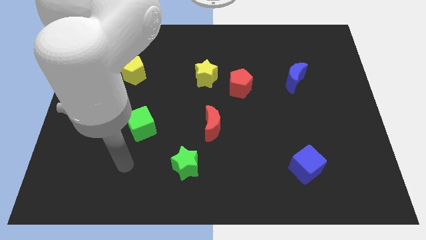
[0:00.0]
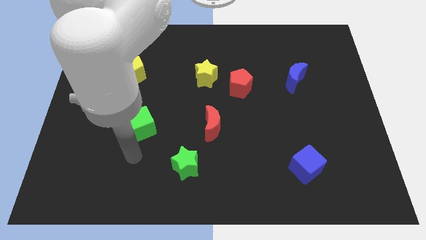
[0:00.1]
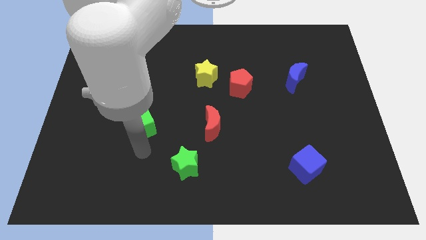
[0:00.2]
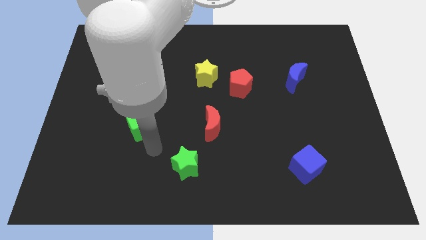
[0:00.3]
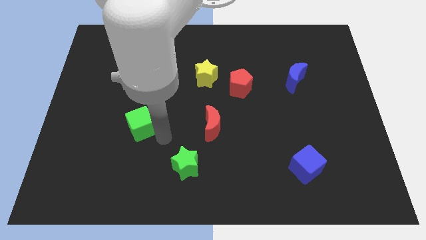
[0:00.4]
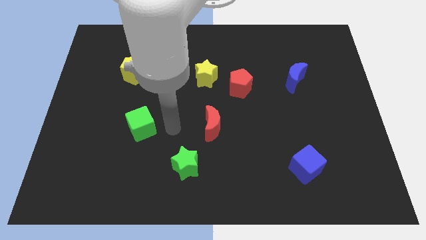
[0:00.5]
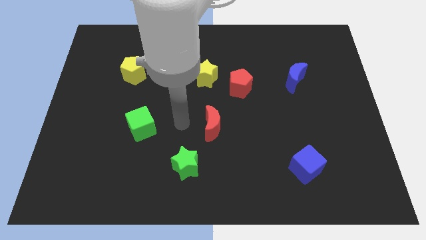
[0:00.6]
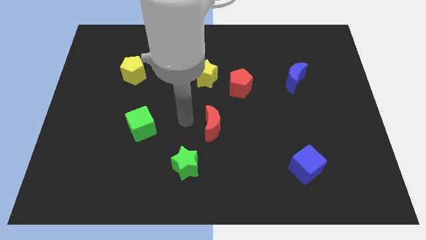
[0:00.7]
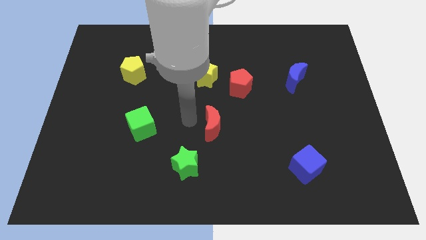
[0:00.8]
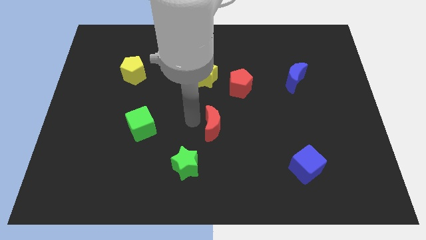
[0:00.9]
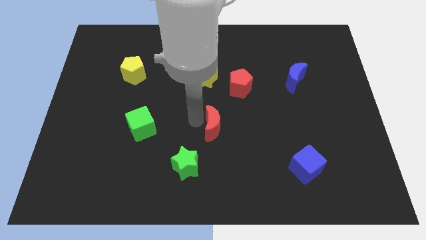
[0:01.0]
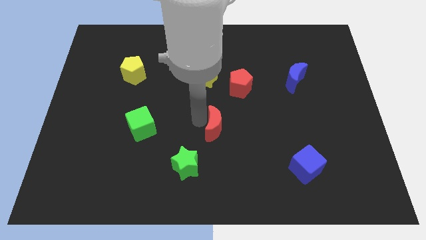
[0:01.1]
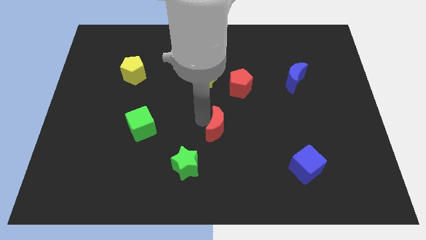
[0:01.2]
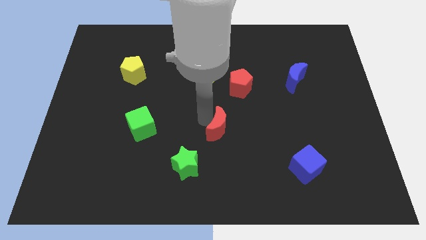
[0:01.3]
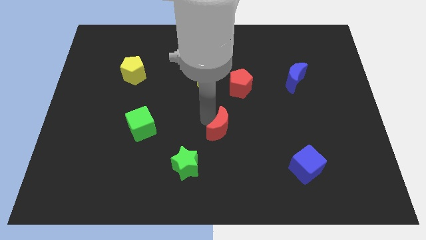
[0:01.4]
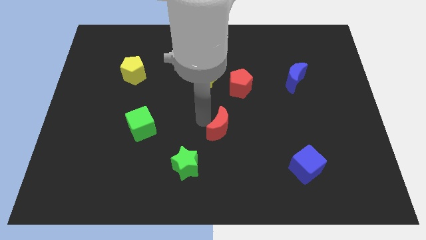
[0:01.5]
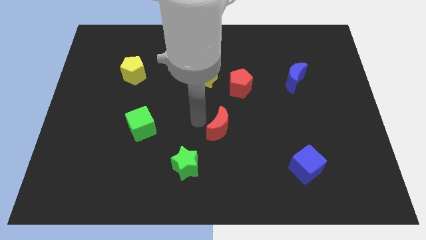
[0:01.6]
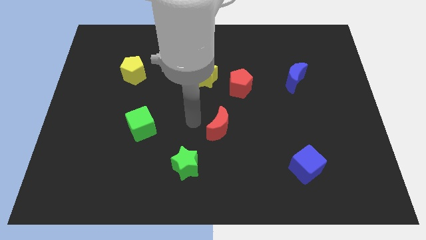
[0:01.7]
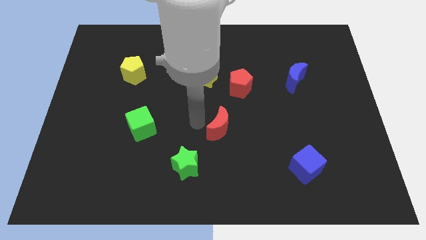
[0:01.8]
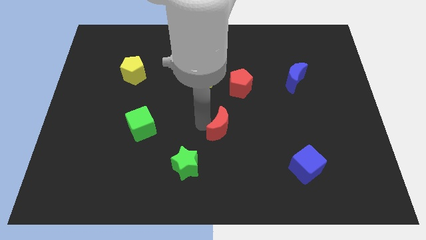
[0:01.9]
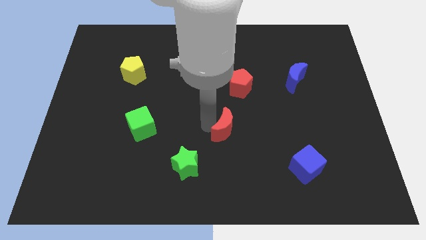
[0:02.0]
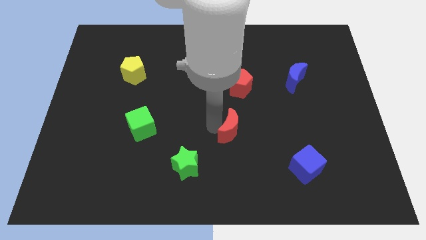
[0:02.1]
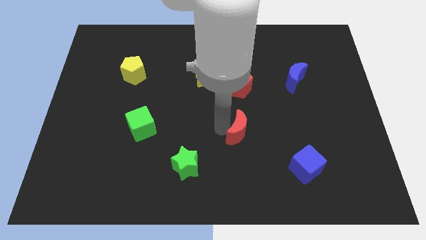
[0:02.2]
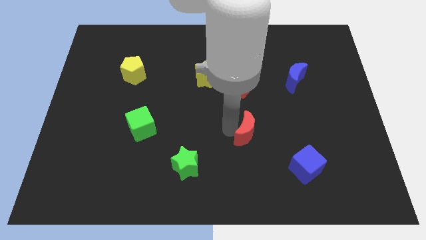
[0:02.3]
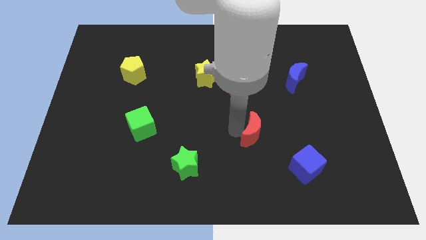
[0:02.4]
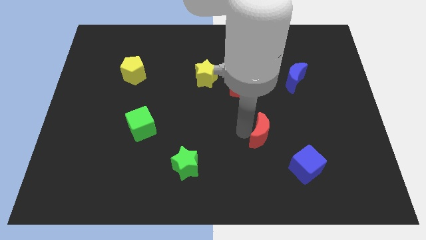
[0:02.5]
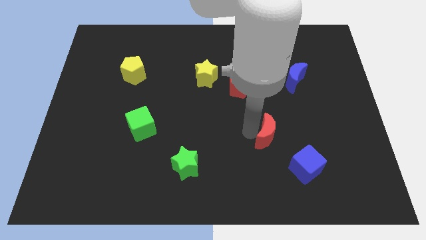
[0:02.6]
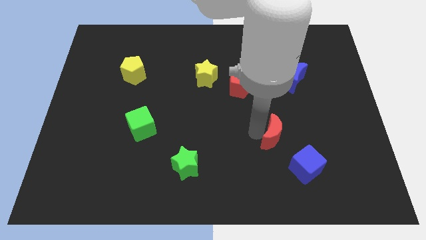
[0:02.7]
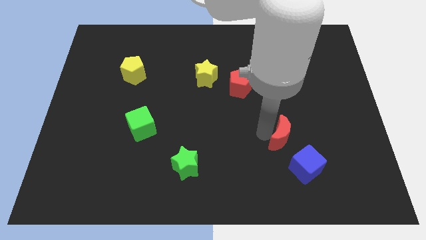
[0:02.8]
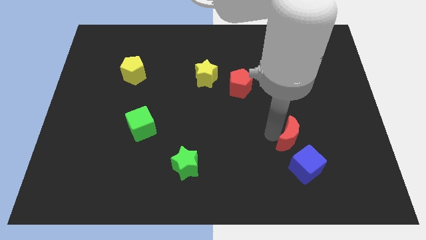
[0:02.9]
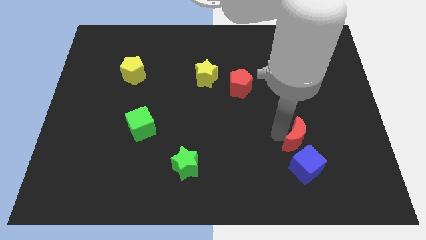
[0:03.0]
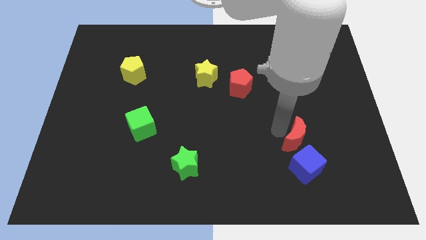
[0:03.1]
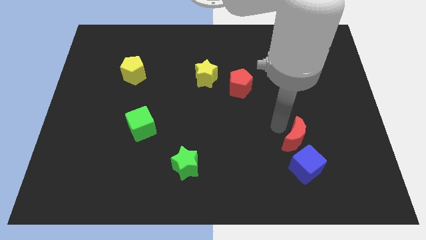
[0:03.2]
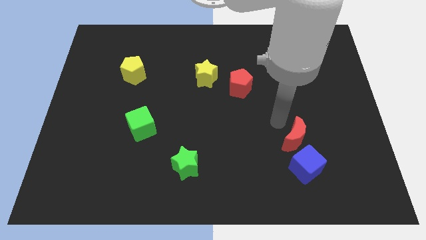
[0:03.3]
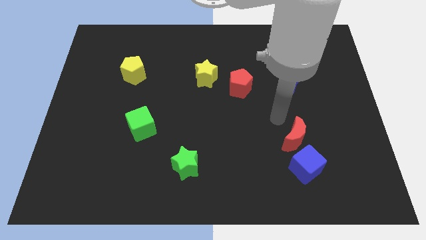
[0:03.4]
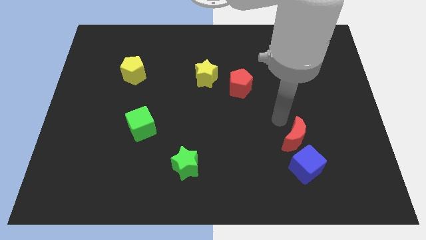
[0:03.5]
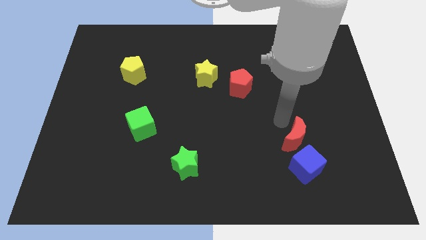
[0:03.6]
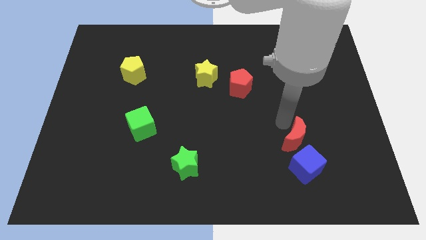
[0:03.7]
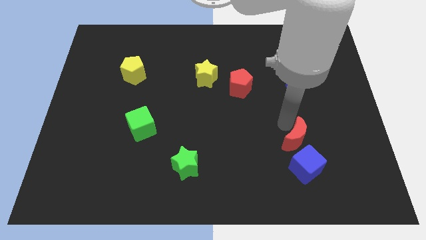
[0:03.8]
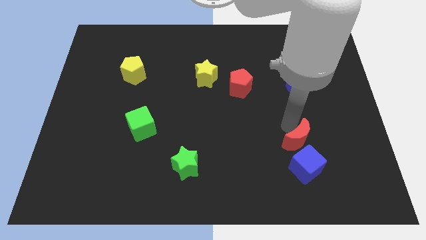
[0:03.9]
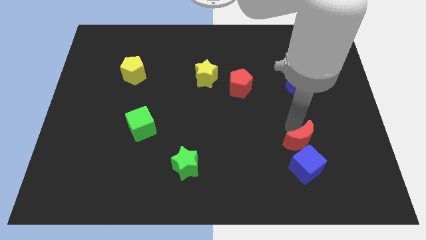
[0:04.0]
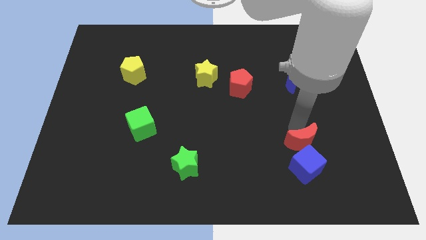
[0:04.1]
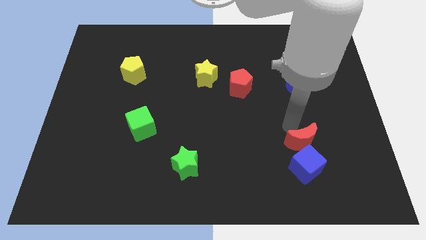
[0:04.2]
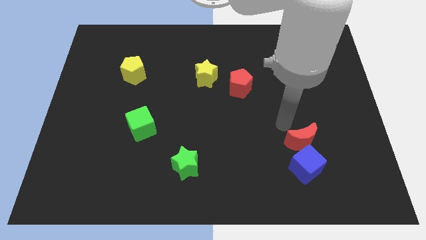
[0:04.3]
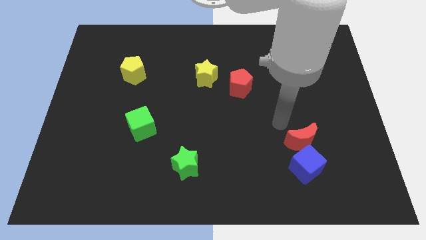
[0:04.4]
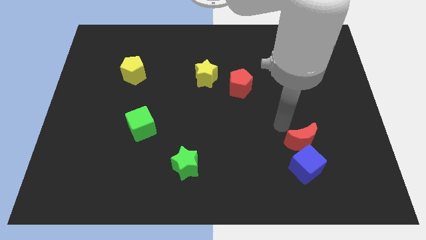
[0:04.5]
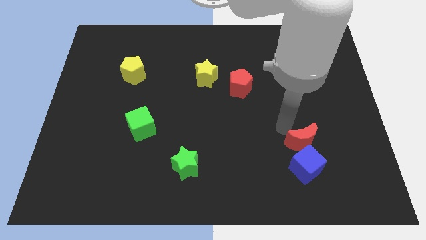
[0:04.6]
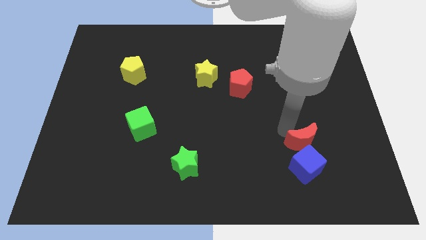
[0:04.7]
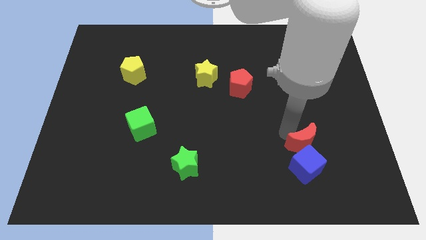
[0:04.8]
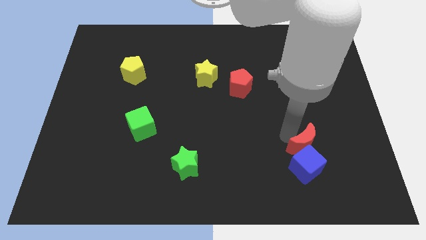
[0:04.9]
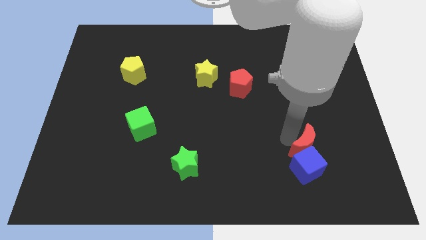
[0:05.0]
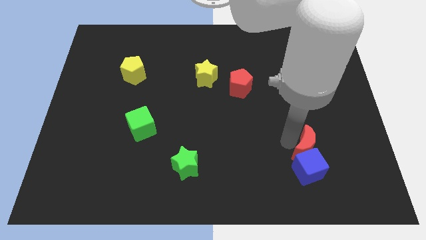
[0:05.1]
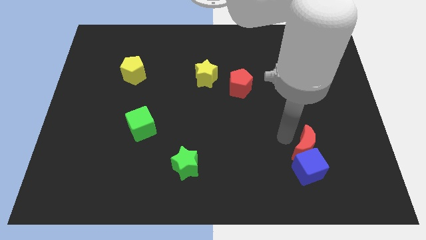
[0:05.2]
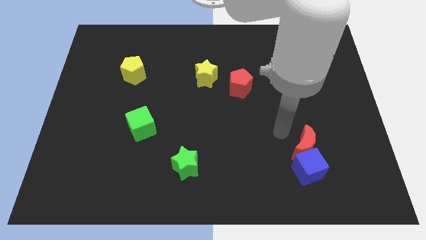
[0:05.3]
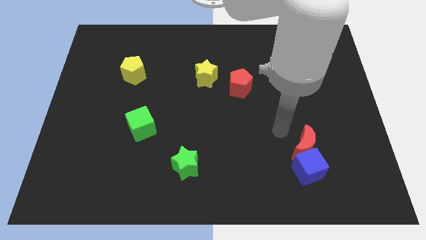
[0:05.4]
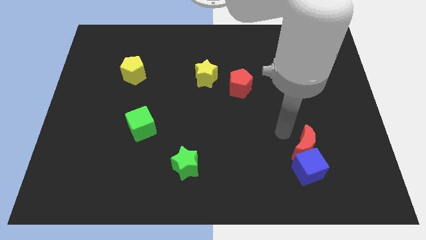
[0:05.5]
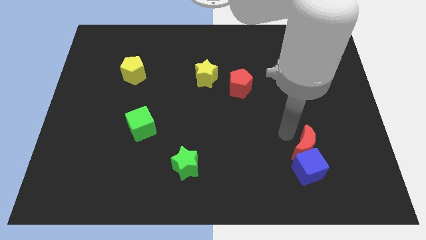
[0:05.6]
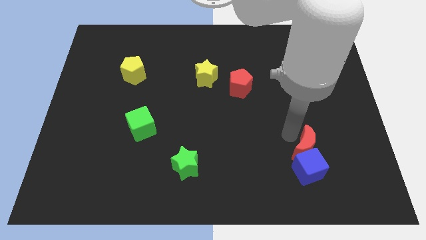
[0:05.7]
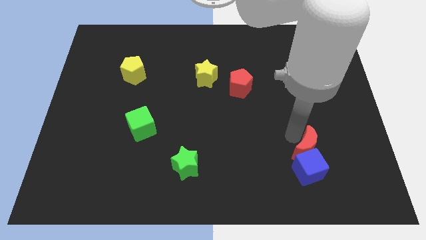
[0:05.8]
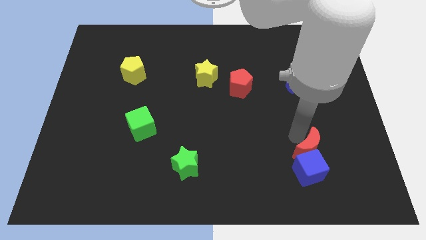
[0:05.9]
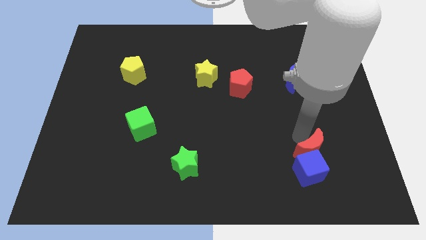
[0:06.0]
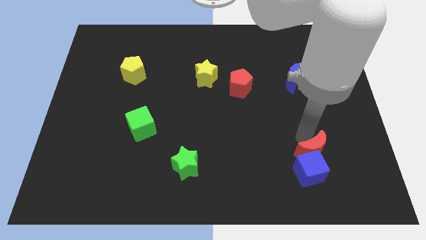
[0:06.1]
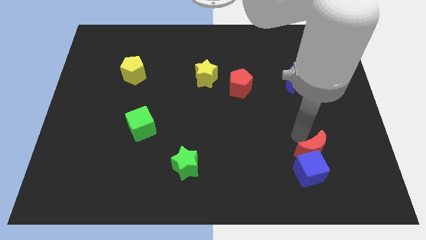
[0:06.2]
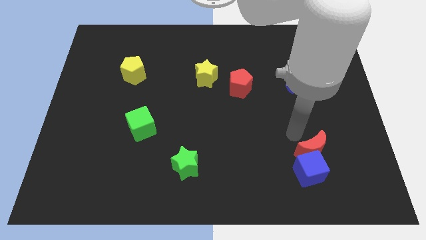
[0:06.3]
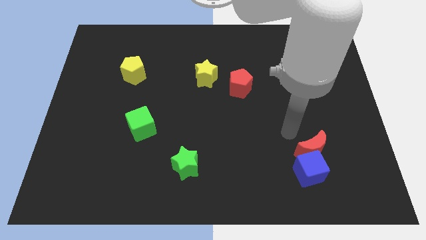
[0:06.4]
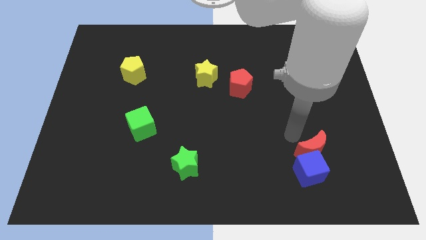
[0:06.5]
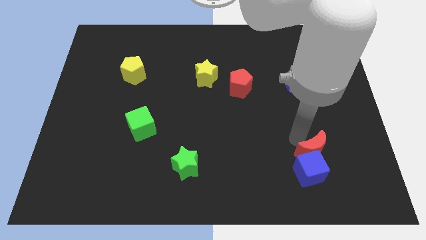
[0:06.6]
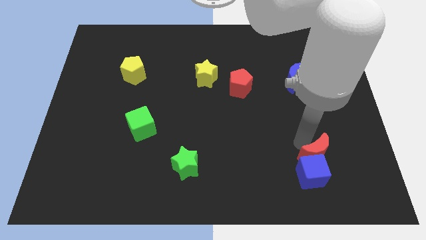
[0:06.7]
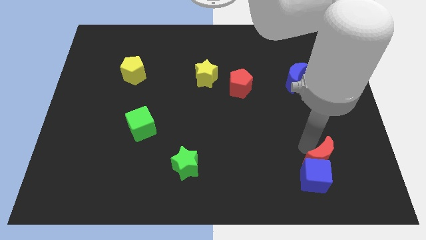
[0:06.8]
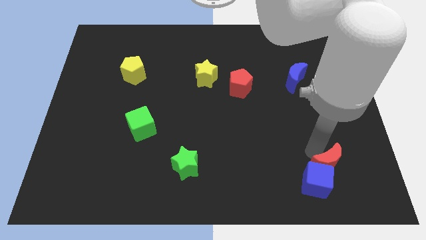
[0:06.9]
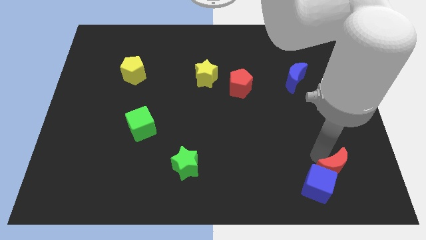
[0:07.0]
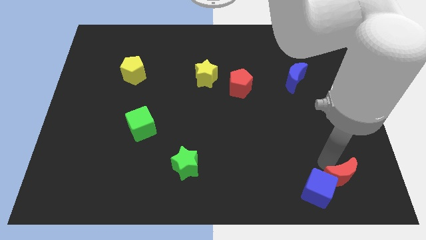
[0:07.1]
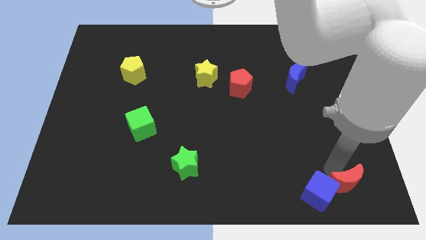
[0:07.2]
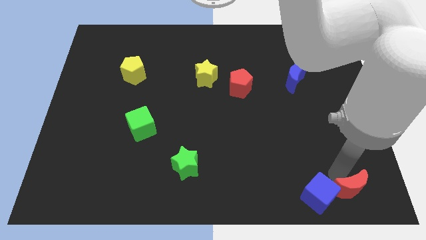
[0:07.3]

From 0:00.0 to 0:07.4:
slide the red moon to the bottom right corner
